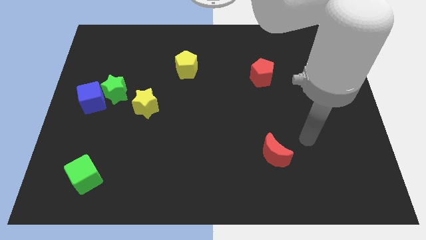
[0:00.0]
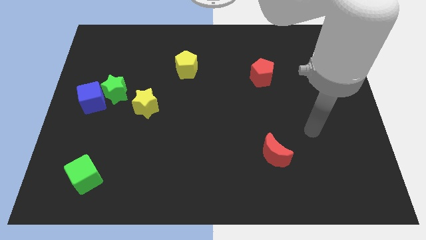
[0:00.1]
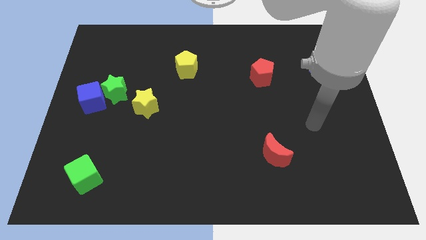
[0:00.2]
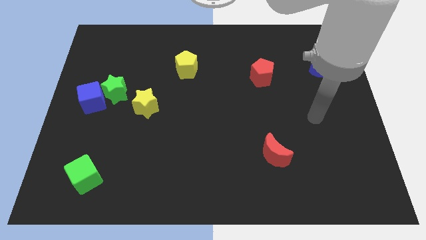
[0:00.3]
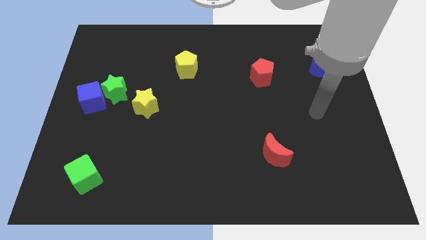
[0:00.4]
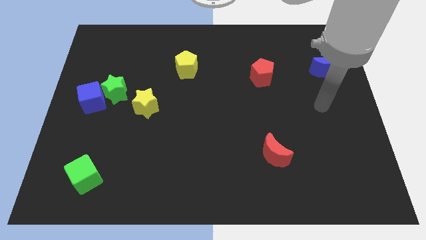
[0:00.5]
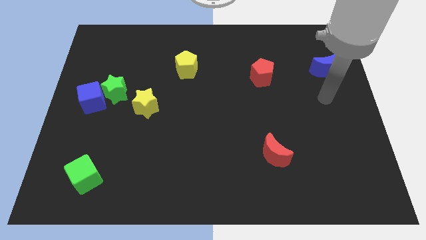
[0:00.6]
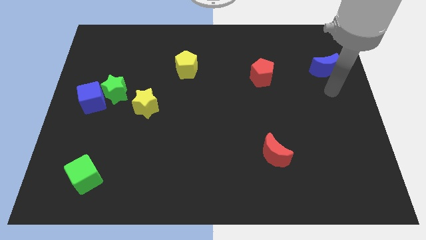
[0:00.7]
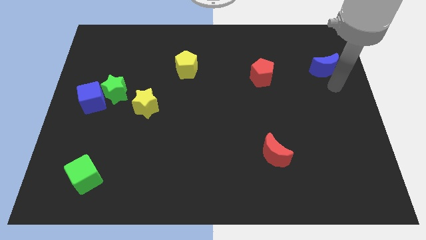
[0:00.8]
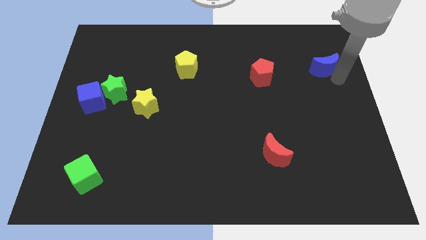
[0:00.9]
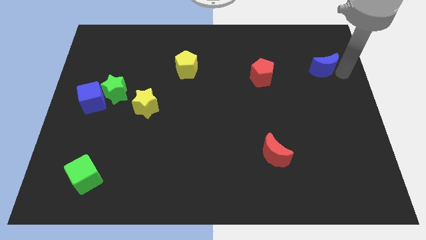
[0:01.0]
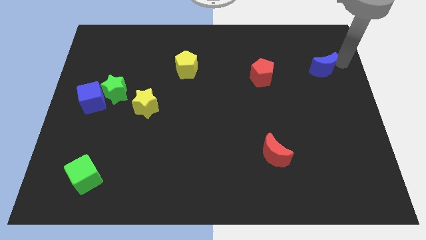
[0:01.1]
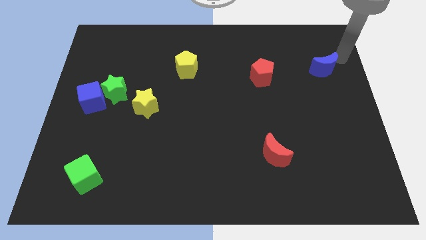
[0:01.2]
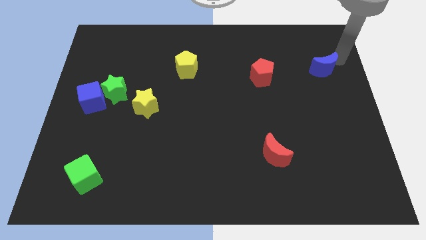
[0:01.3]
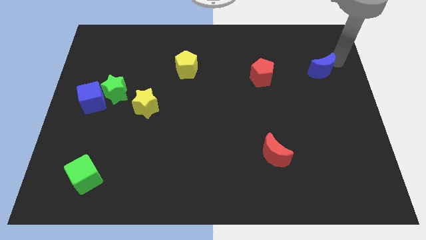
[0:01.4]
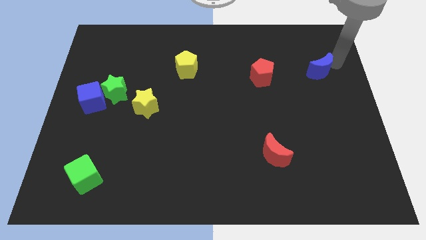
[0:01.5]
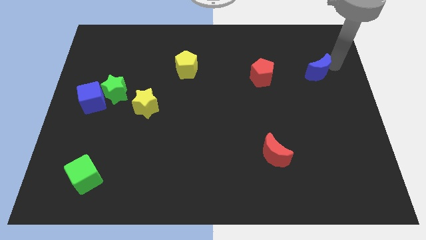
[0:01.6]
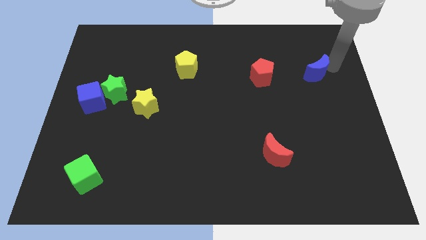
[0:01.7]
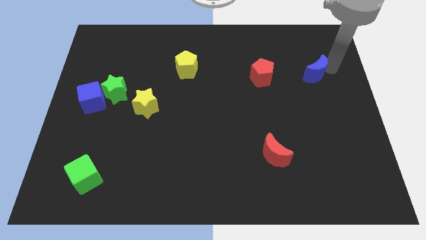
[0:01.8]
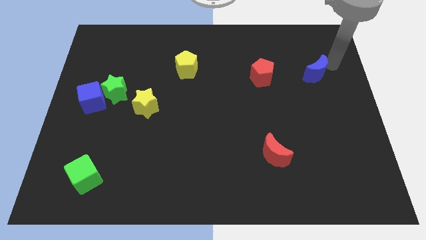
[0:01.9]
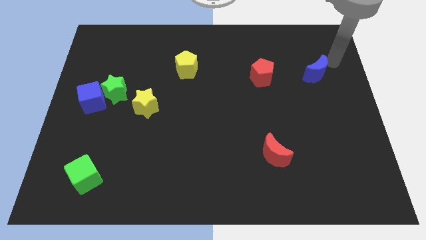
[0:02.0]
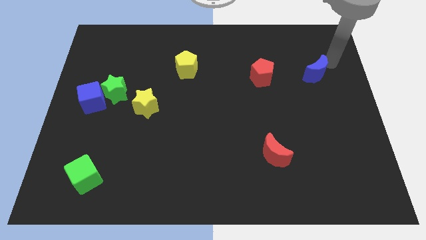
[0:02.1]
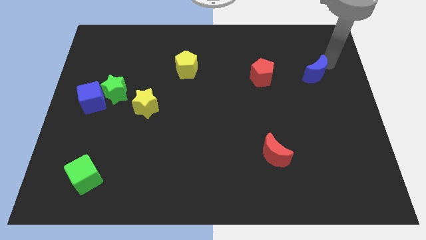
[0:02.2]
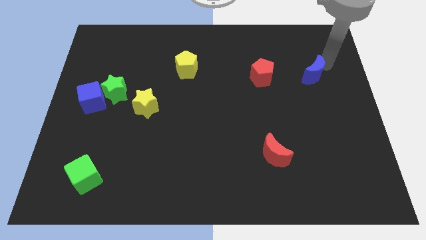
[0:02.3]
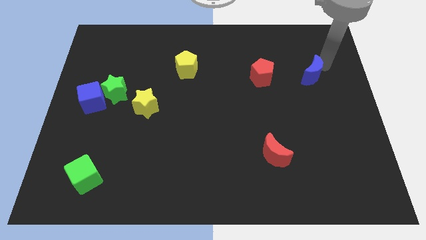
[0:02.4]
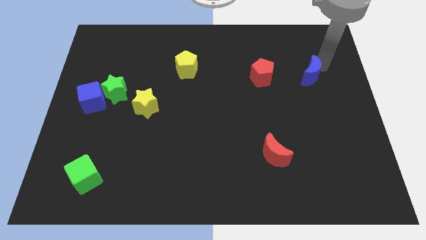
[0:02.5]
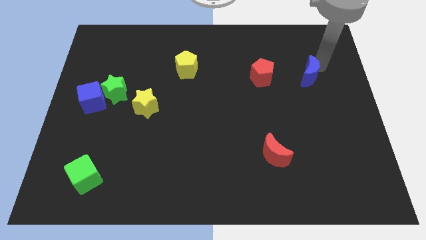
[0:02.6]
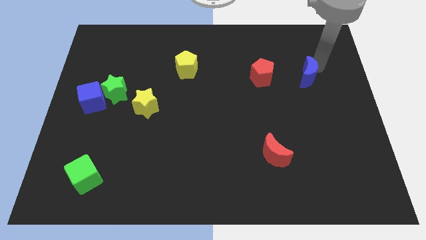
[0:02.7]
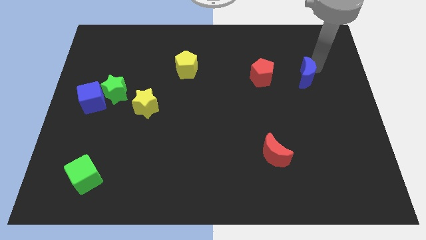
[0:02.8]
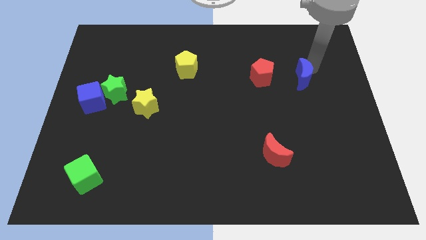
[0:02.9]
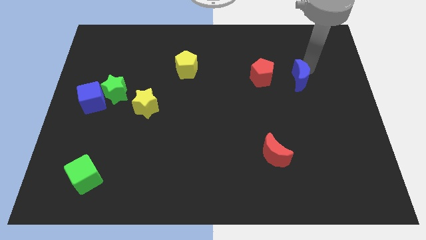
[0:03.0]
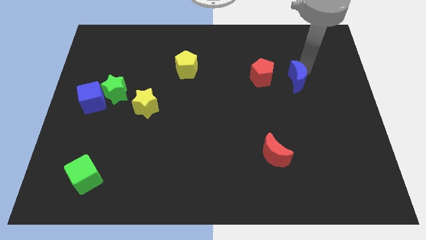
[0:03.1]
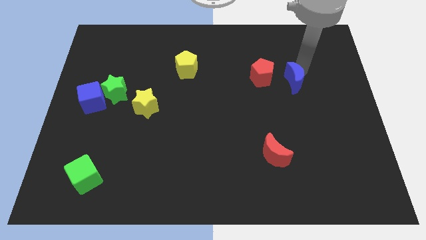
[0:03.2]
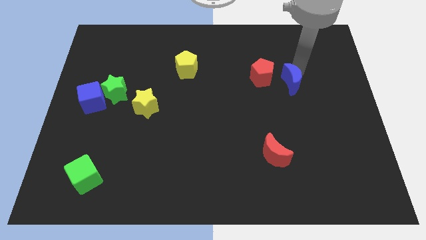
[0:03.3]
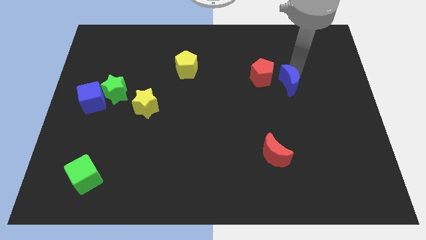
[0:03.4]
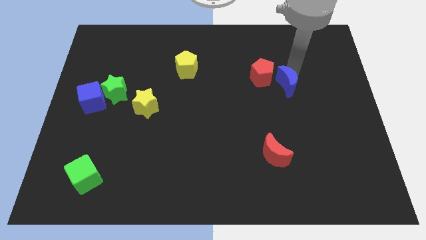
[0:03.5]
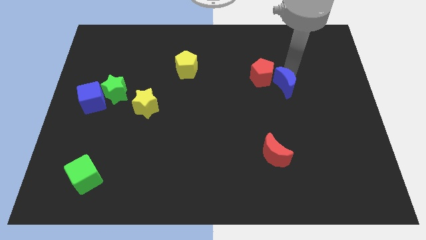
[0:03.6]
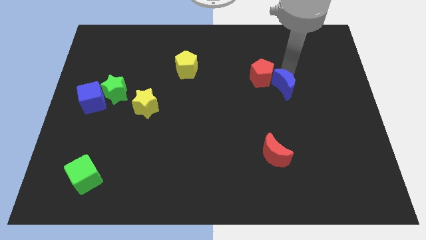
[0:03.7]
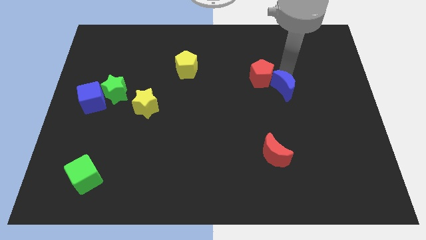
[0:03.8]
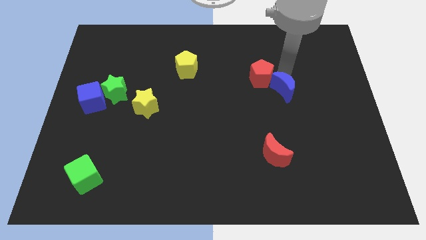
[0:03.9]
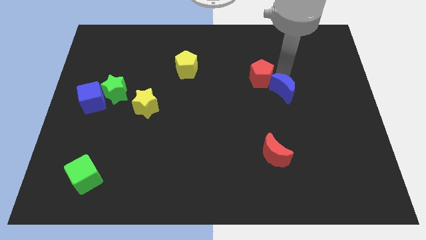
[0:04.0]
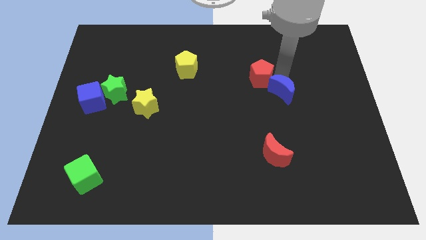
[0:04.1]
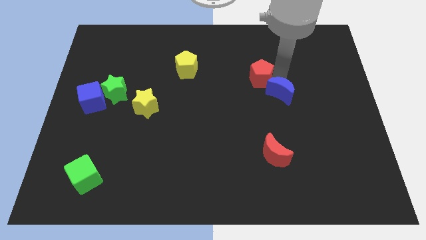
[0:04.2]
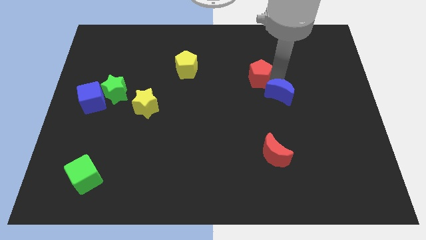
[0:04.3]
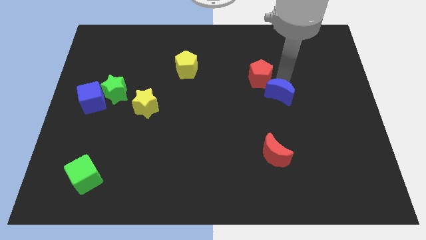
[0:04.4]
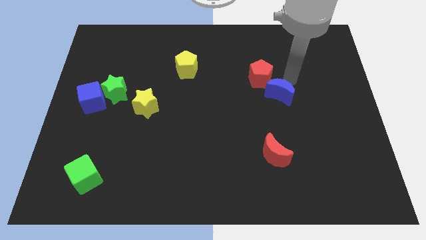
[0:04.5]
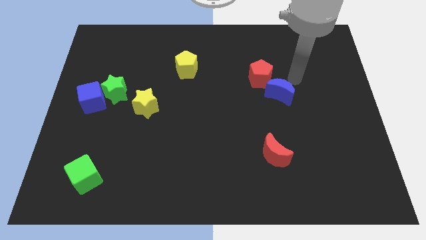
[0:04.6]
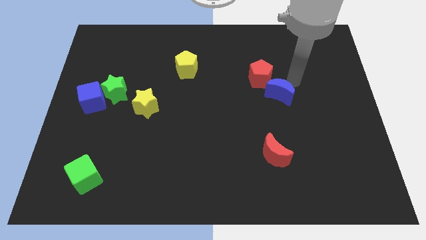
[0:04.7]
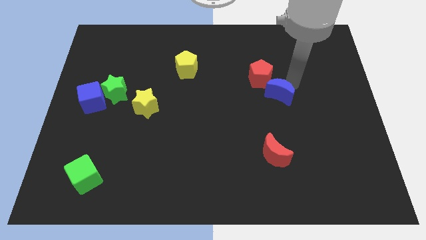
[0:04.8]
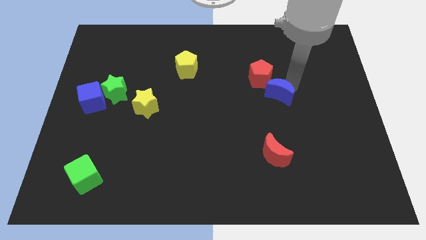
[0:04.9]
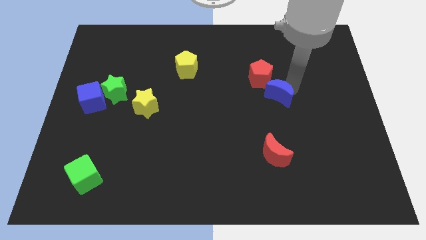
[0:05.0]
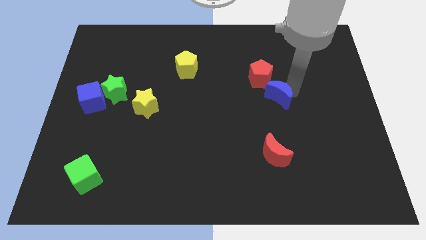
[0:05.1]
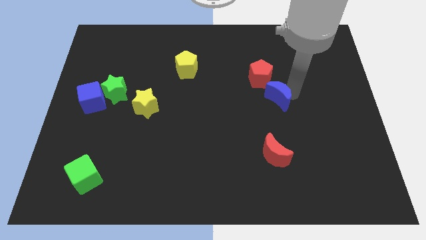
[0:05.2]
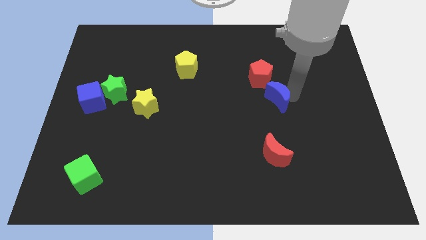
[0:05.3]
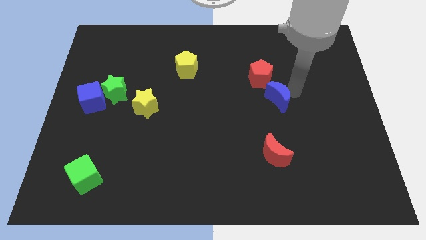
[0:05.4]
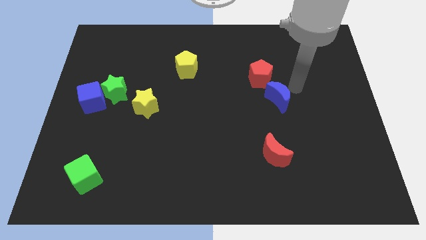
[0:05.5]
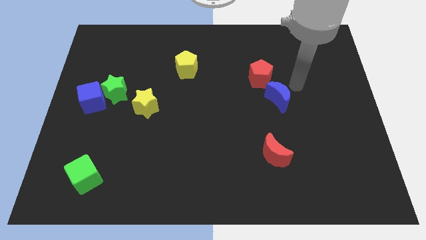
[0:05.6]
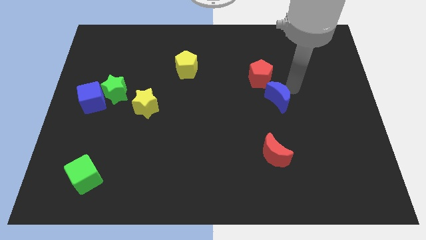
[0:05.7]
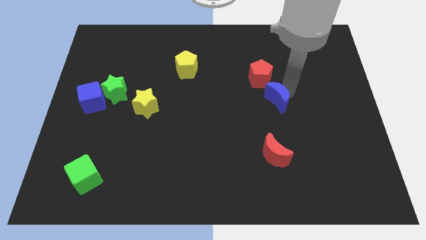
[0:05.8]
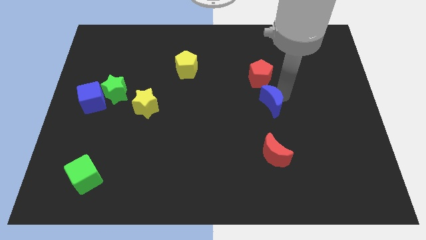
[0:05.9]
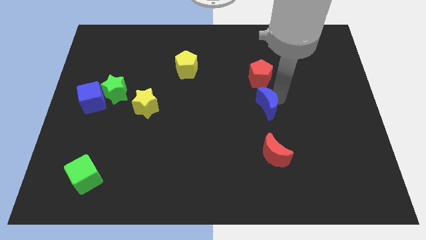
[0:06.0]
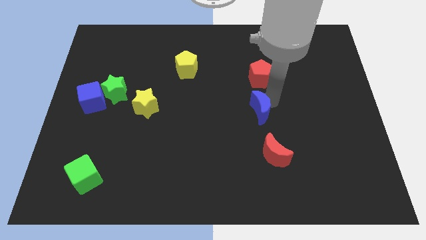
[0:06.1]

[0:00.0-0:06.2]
slide the blue moon downwards and to the left

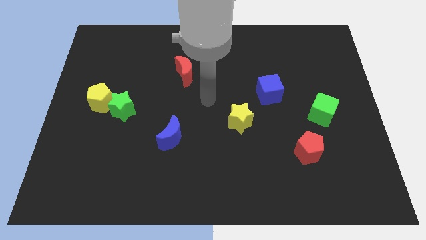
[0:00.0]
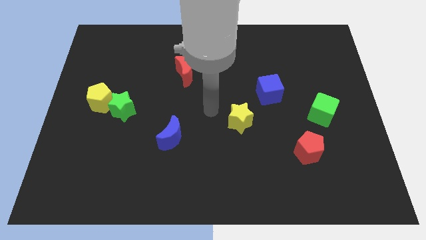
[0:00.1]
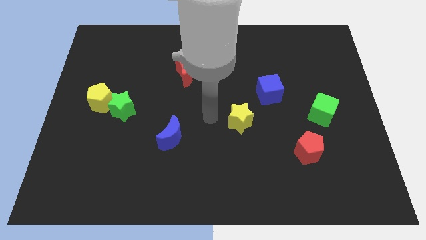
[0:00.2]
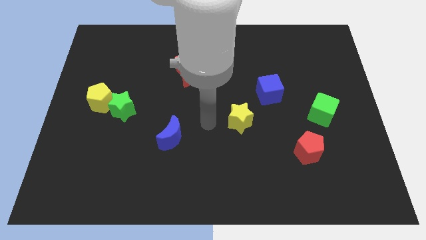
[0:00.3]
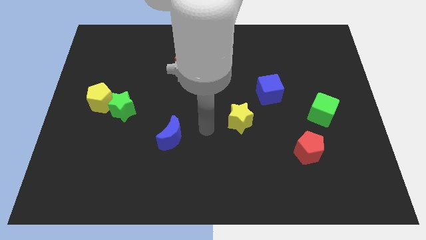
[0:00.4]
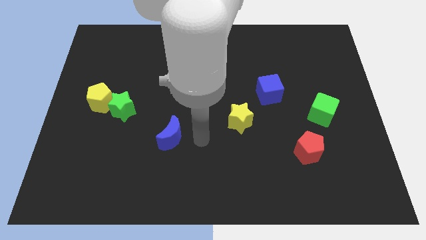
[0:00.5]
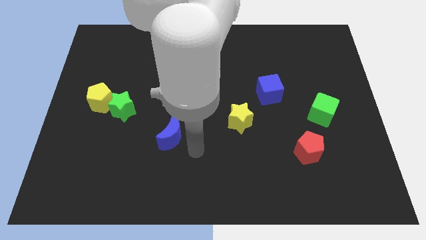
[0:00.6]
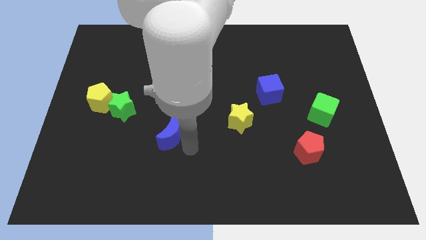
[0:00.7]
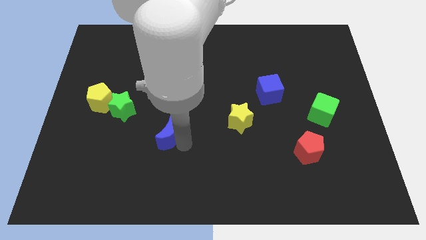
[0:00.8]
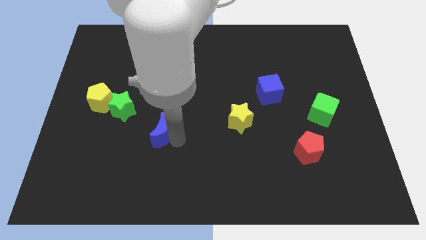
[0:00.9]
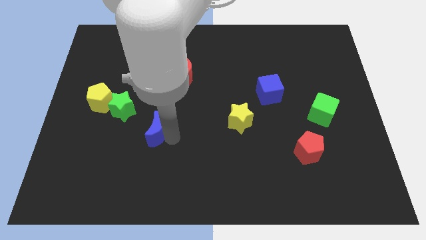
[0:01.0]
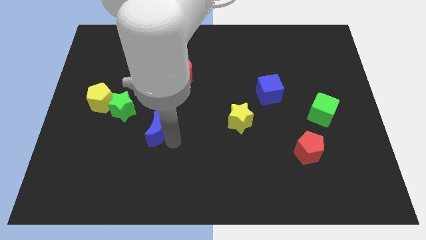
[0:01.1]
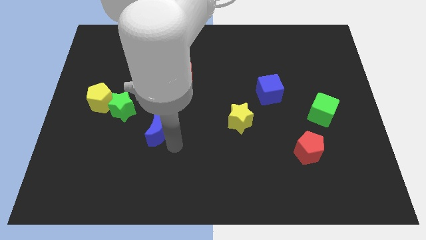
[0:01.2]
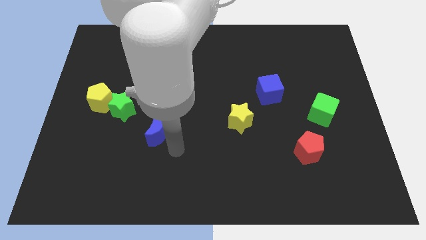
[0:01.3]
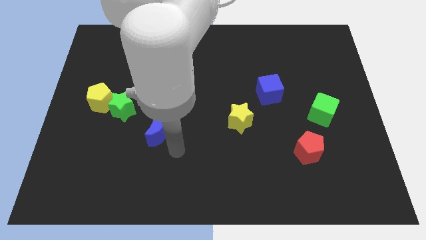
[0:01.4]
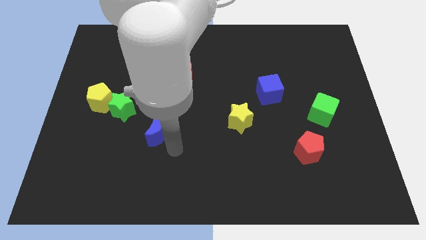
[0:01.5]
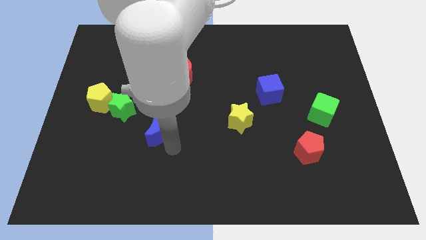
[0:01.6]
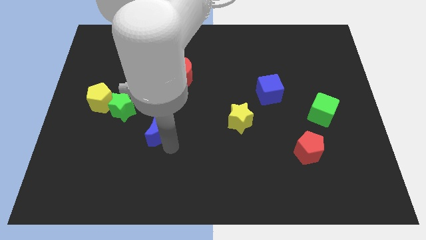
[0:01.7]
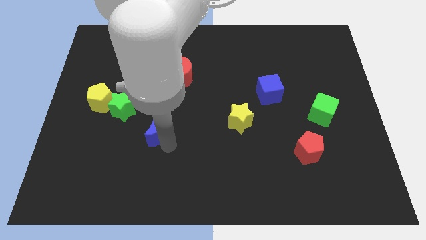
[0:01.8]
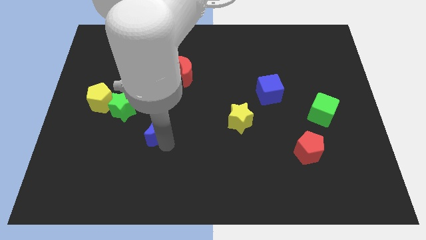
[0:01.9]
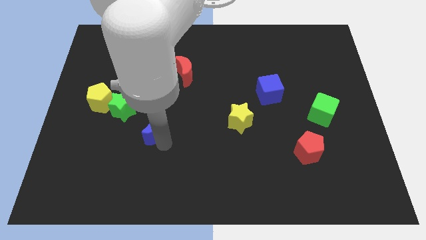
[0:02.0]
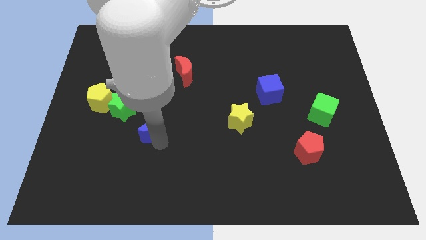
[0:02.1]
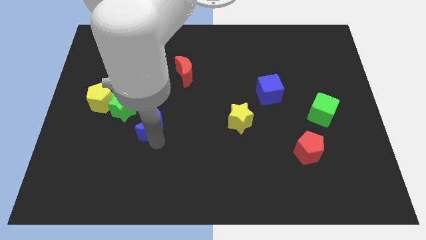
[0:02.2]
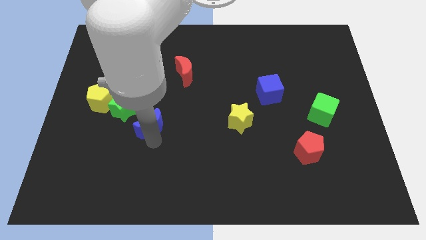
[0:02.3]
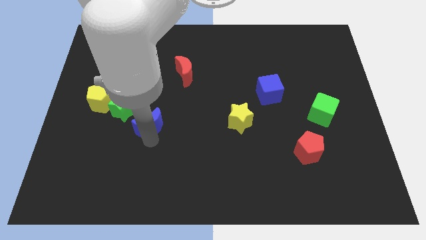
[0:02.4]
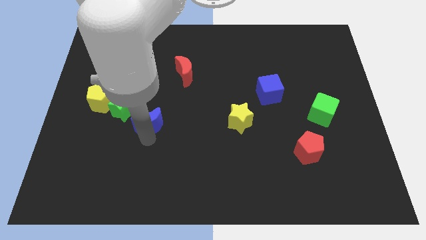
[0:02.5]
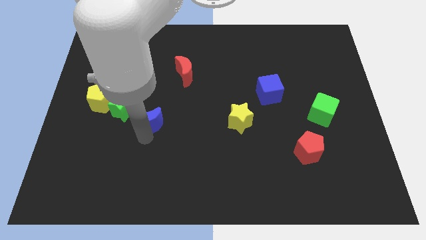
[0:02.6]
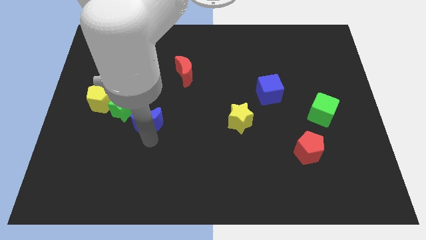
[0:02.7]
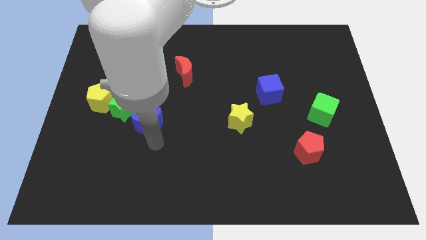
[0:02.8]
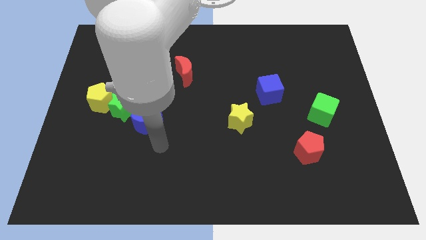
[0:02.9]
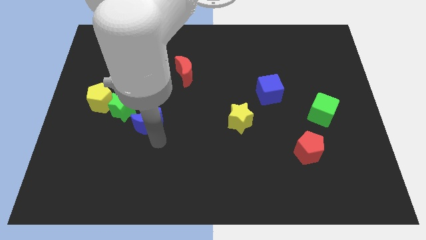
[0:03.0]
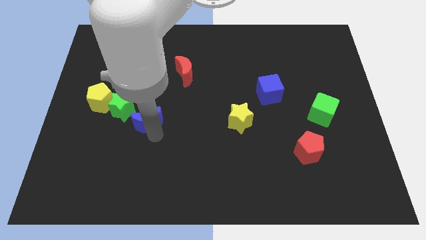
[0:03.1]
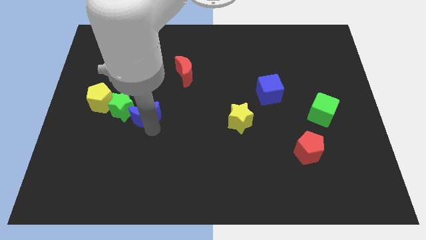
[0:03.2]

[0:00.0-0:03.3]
move the blue moon diagonally up and left a little bit
